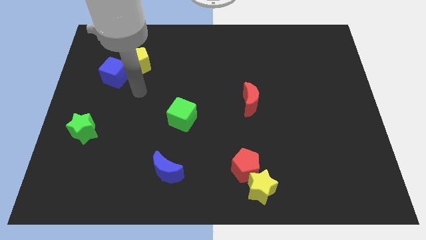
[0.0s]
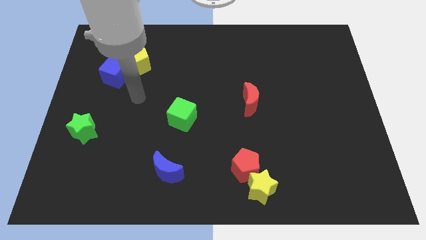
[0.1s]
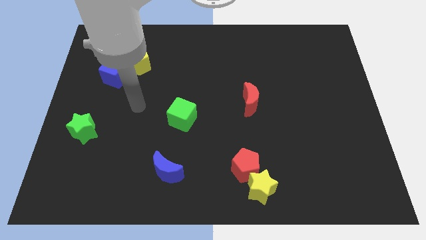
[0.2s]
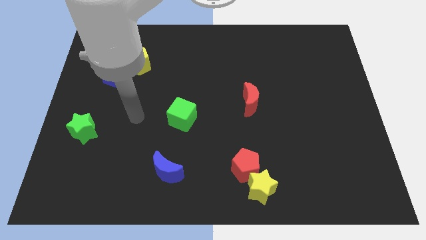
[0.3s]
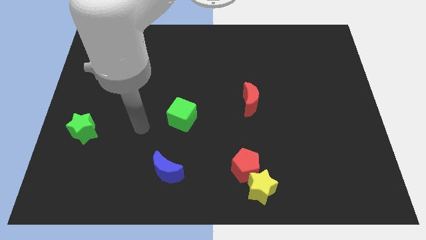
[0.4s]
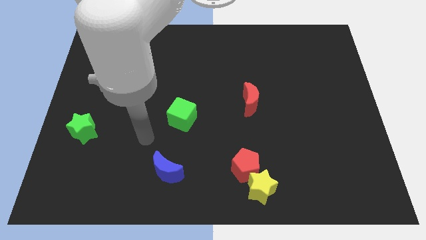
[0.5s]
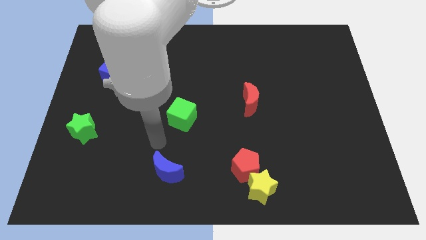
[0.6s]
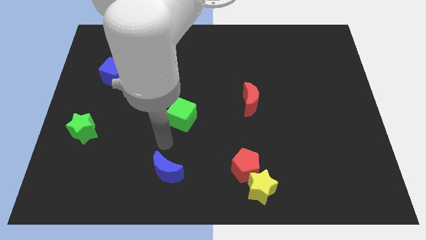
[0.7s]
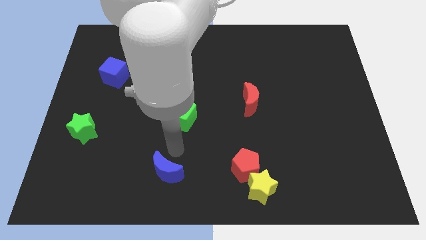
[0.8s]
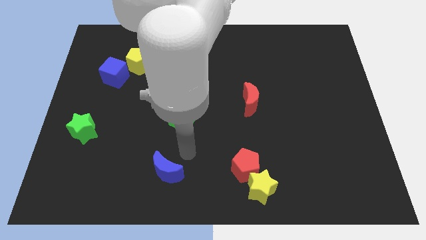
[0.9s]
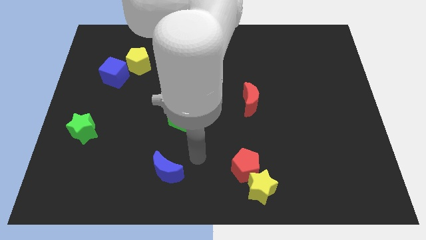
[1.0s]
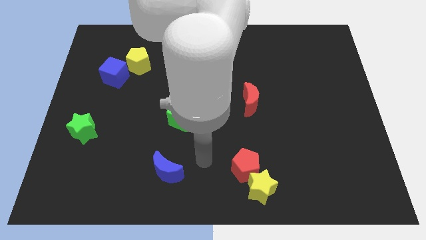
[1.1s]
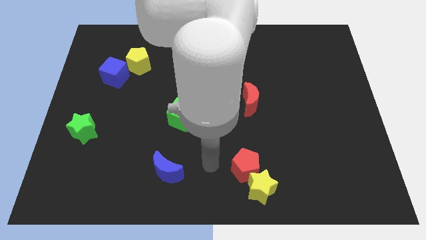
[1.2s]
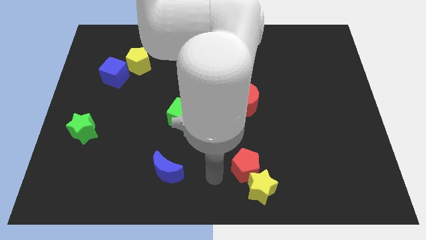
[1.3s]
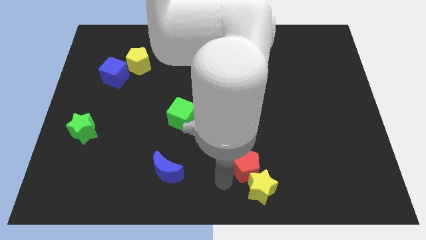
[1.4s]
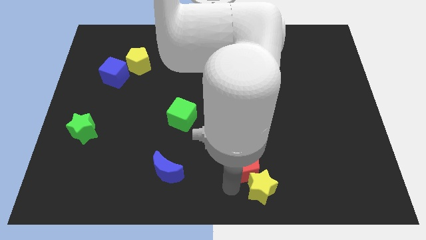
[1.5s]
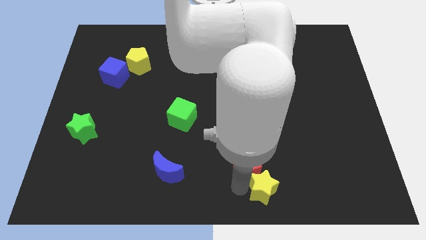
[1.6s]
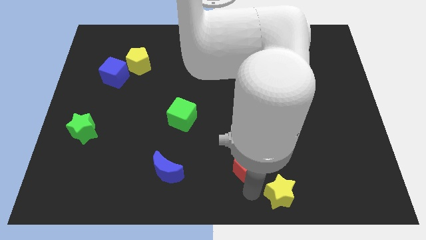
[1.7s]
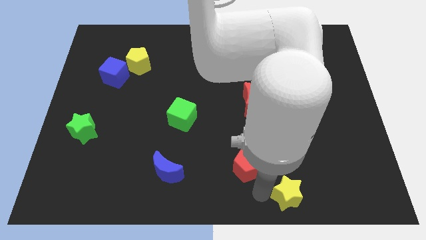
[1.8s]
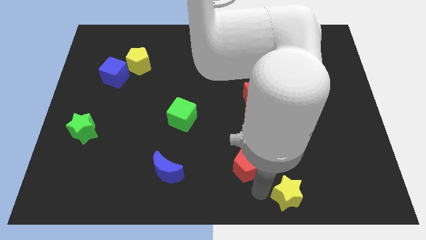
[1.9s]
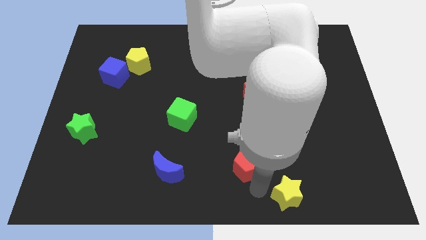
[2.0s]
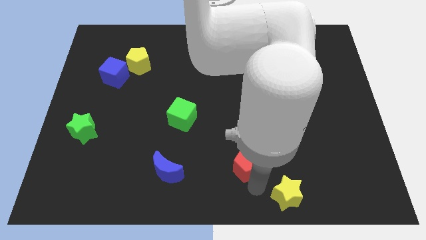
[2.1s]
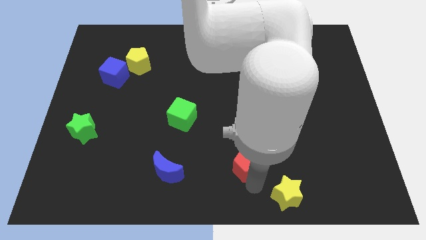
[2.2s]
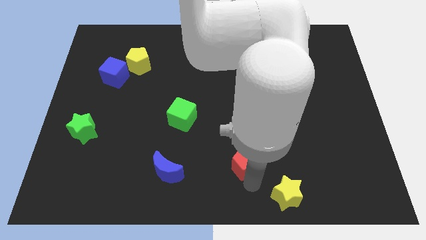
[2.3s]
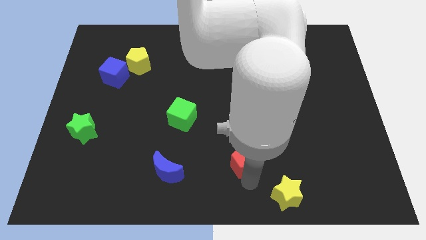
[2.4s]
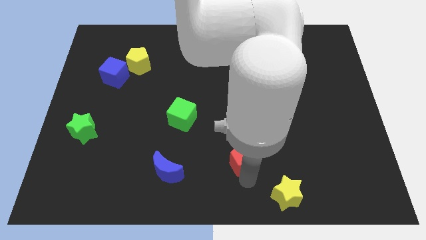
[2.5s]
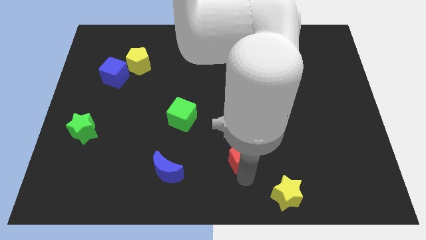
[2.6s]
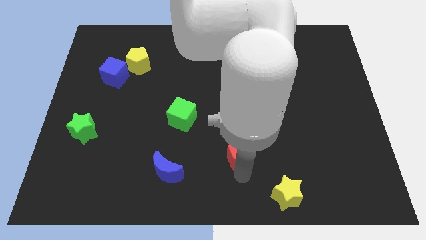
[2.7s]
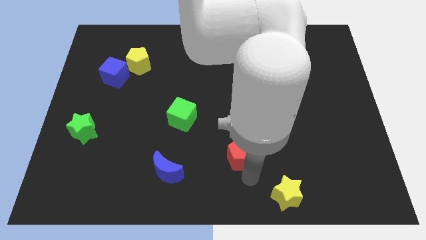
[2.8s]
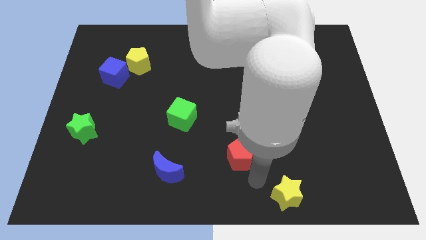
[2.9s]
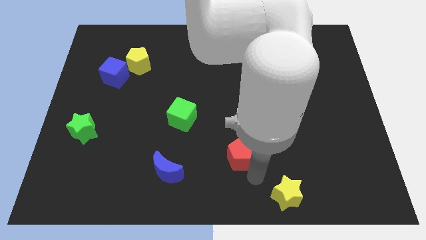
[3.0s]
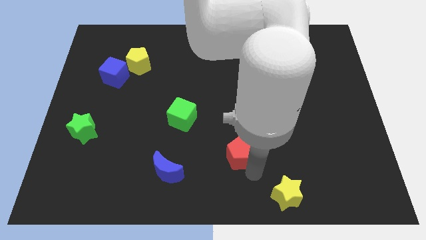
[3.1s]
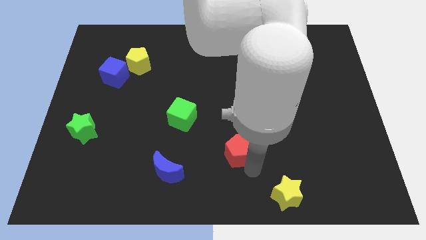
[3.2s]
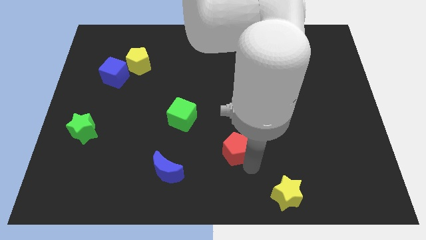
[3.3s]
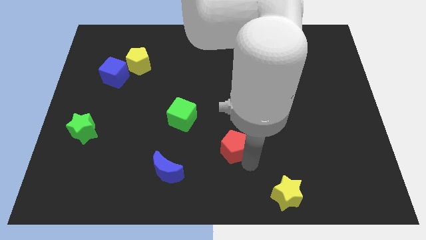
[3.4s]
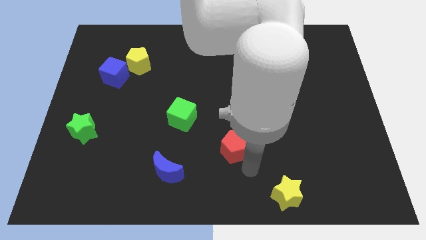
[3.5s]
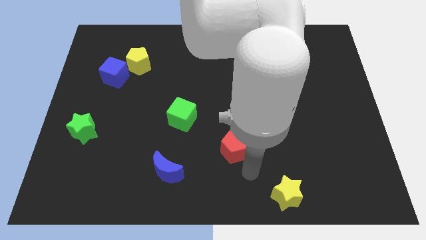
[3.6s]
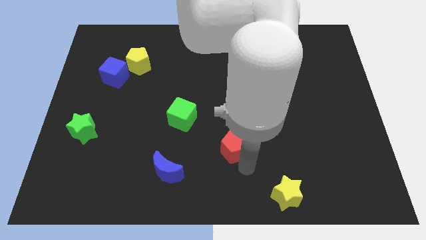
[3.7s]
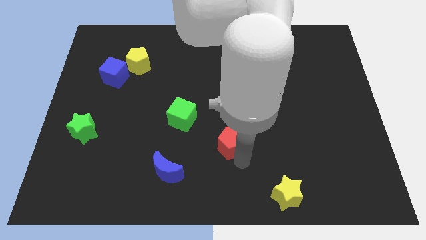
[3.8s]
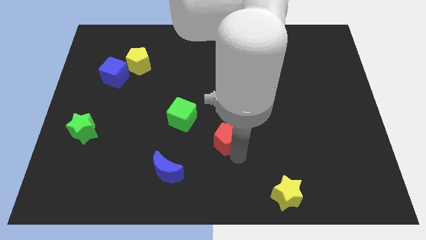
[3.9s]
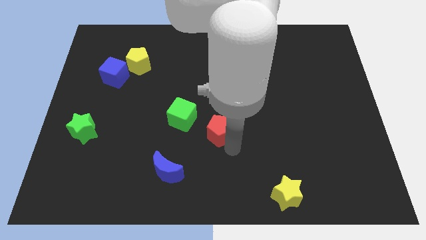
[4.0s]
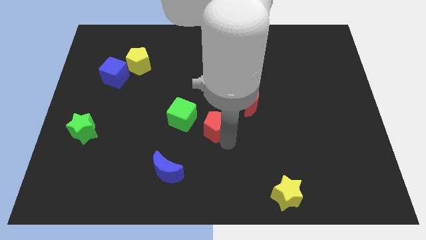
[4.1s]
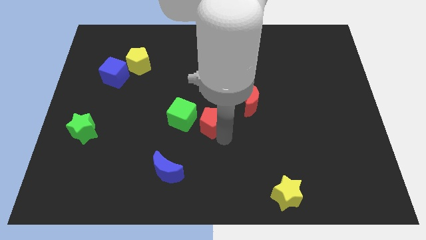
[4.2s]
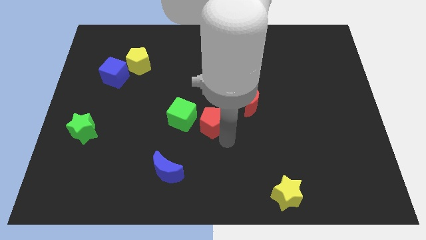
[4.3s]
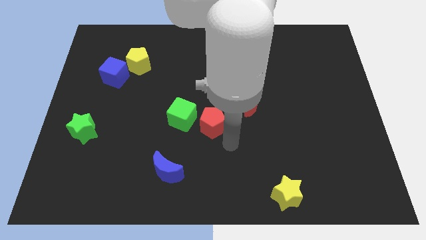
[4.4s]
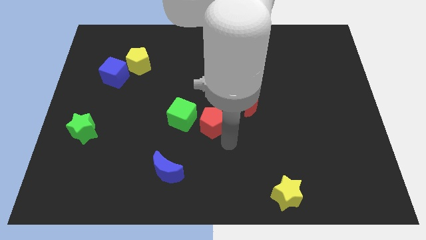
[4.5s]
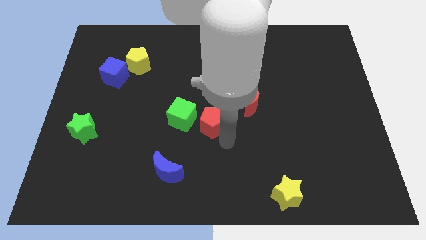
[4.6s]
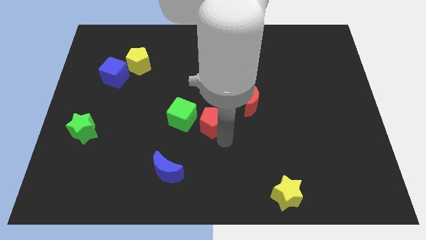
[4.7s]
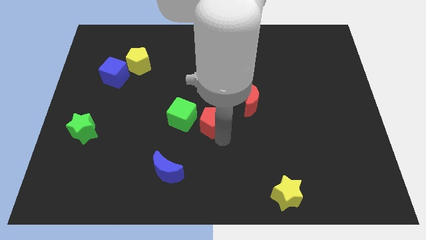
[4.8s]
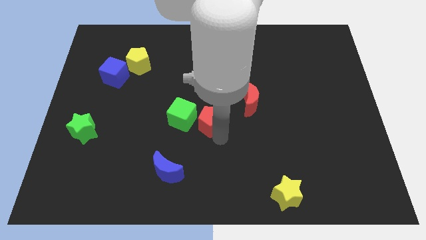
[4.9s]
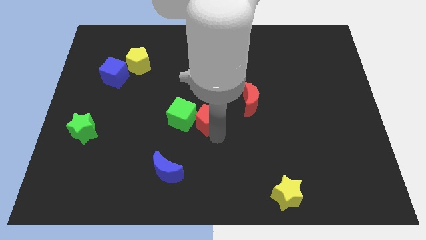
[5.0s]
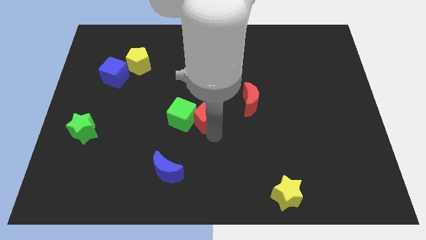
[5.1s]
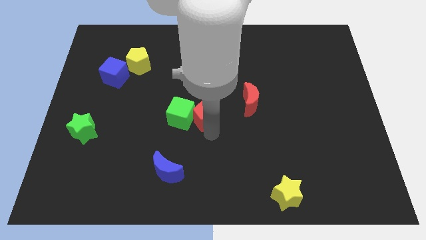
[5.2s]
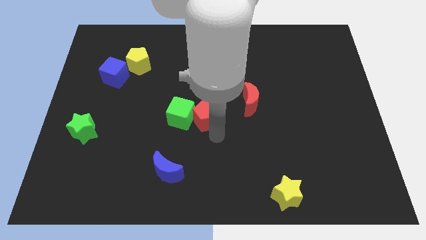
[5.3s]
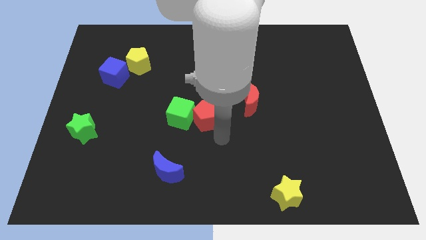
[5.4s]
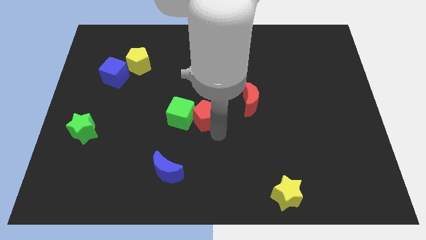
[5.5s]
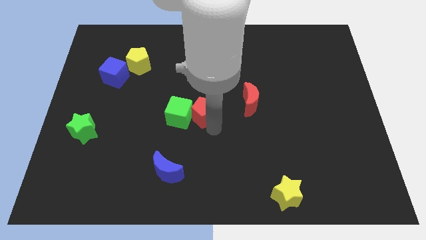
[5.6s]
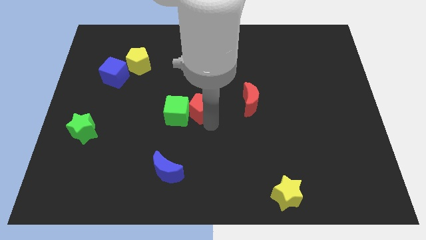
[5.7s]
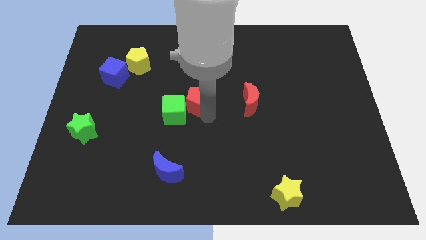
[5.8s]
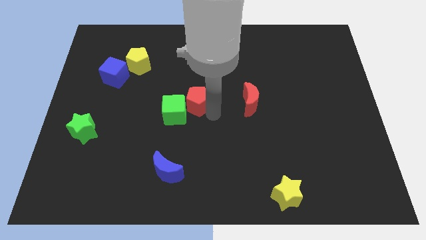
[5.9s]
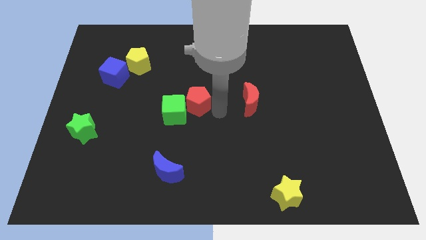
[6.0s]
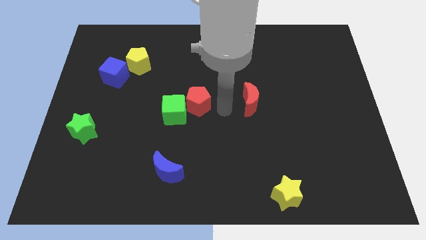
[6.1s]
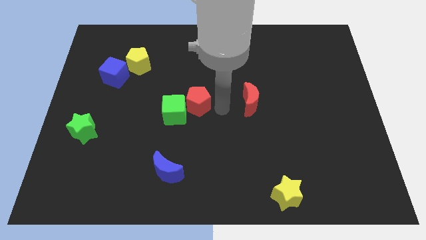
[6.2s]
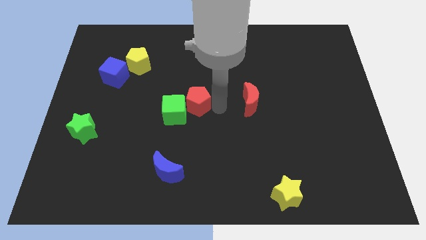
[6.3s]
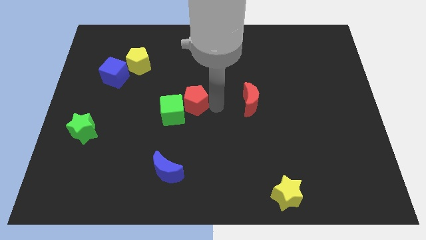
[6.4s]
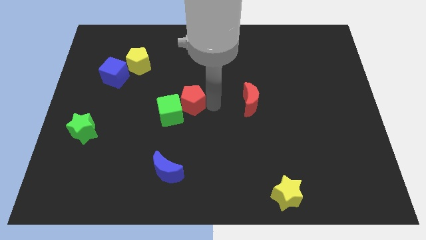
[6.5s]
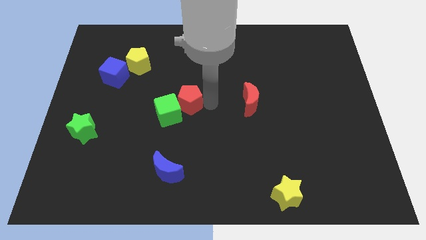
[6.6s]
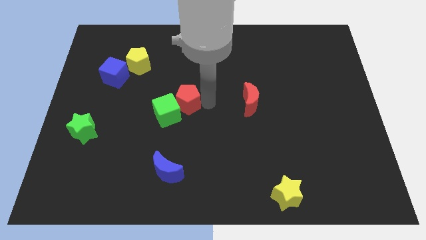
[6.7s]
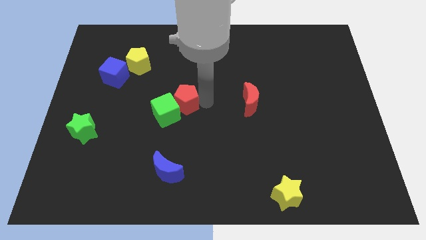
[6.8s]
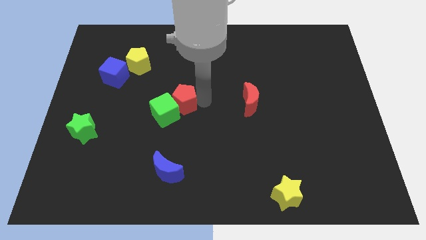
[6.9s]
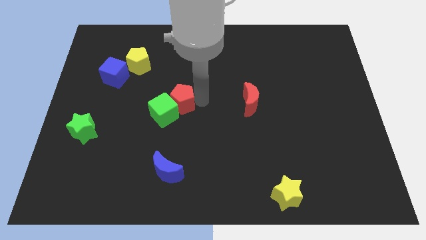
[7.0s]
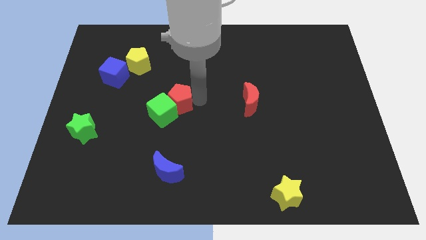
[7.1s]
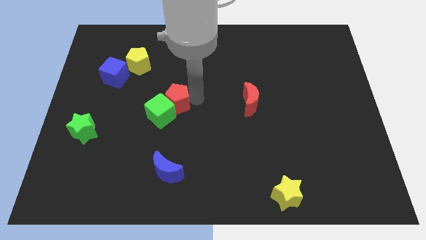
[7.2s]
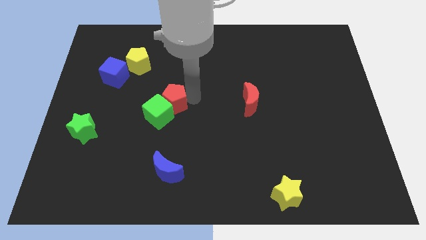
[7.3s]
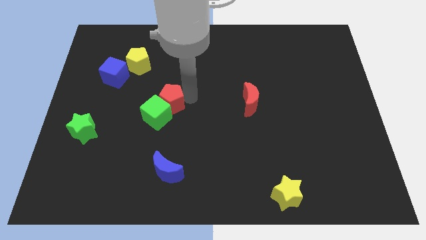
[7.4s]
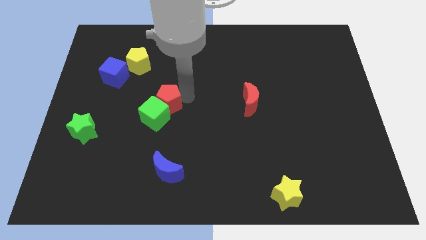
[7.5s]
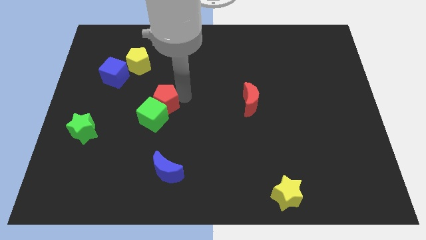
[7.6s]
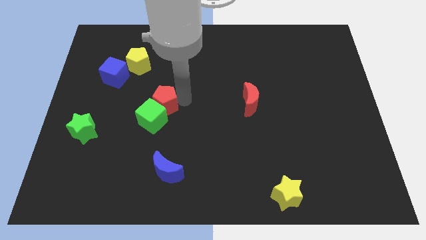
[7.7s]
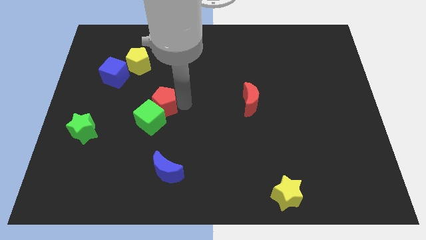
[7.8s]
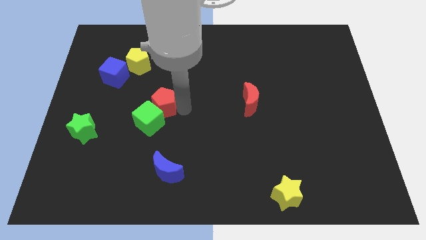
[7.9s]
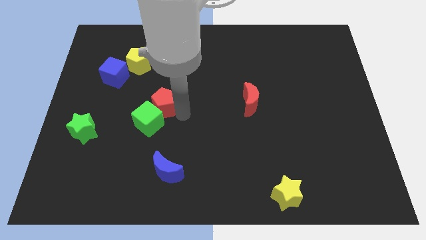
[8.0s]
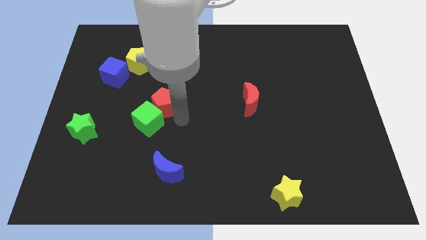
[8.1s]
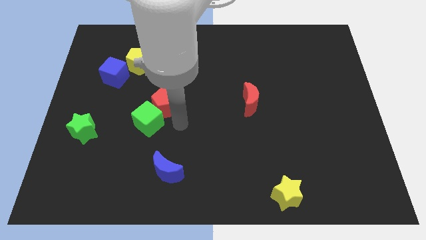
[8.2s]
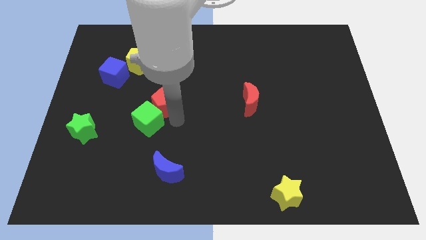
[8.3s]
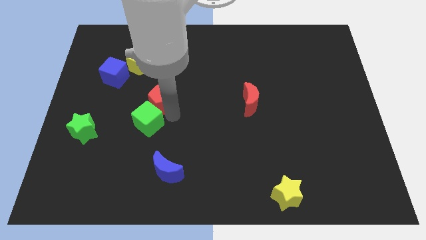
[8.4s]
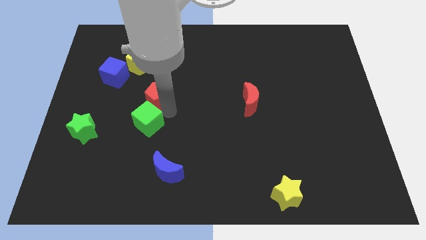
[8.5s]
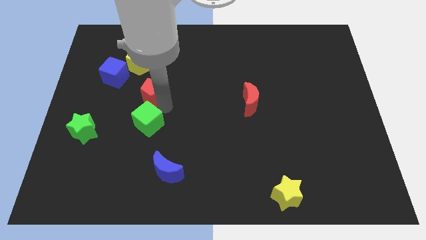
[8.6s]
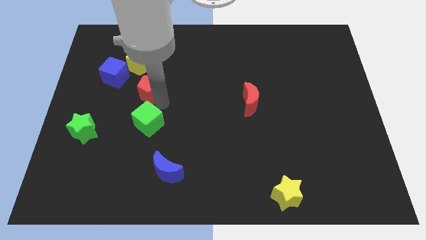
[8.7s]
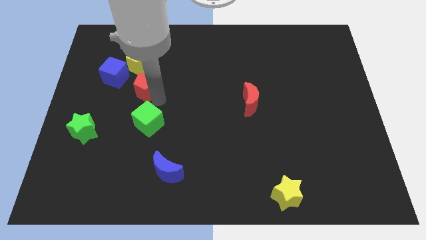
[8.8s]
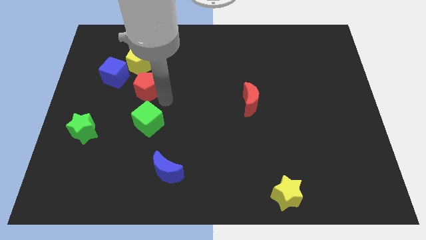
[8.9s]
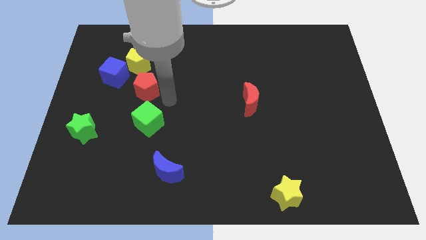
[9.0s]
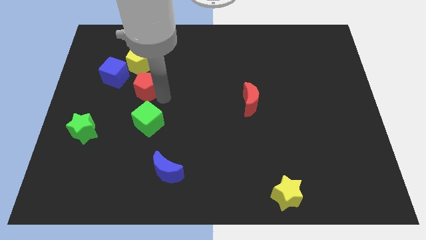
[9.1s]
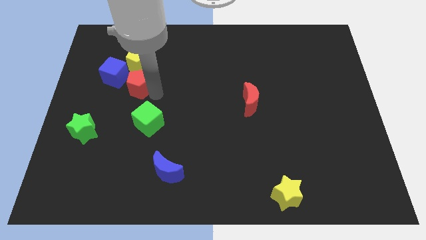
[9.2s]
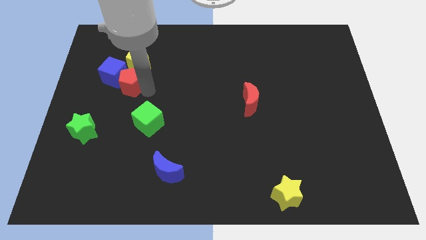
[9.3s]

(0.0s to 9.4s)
push the red pentagon to the blue cube
